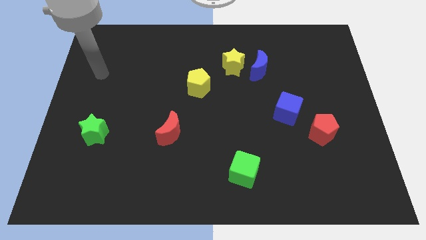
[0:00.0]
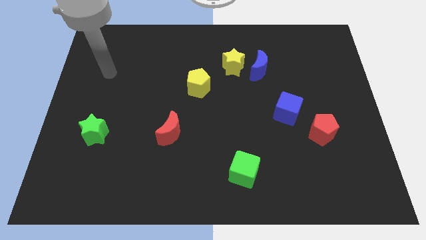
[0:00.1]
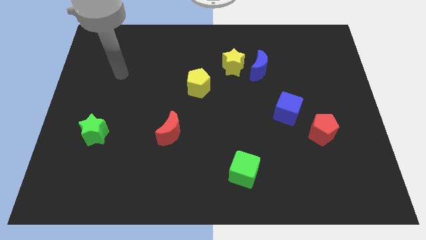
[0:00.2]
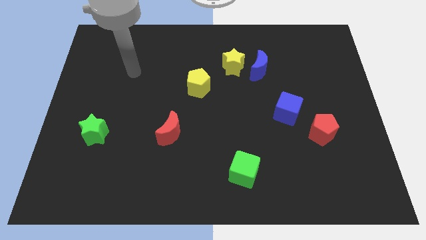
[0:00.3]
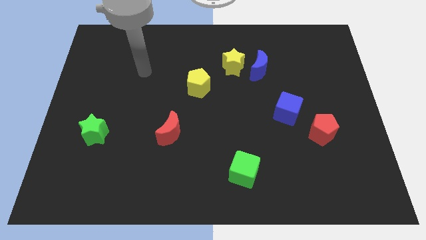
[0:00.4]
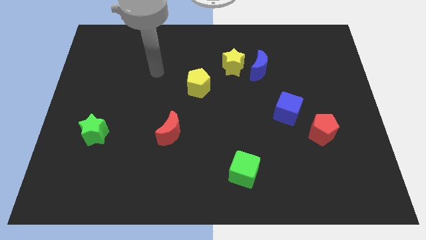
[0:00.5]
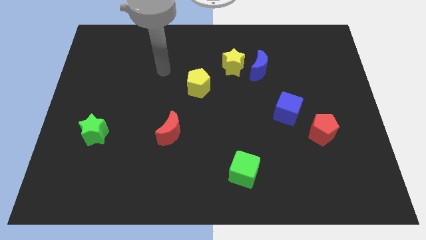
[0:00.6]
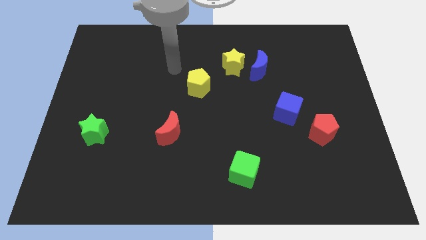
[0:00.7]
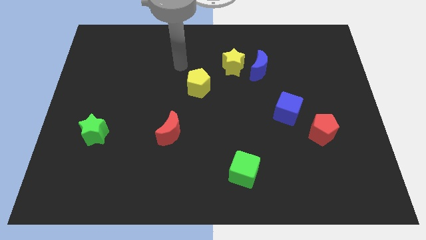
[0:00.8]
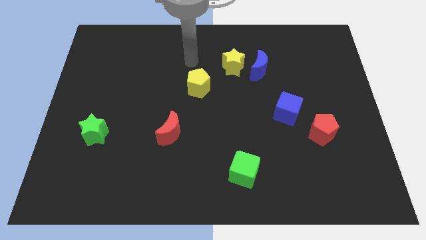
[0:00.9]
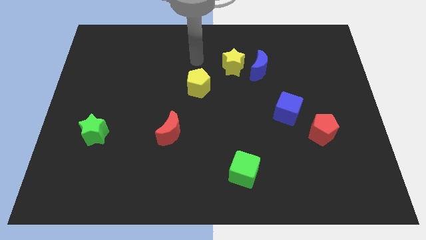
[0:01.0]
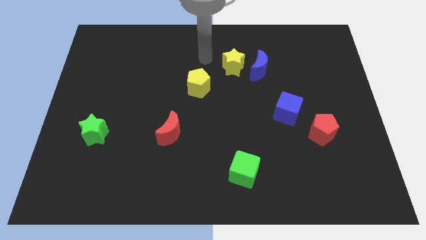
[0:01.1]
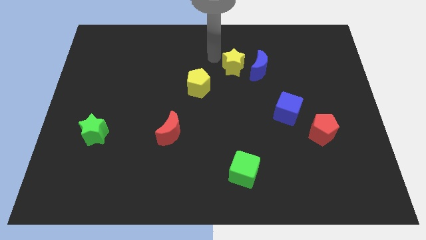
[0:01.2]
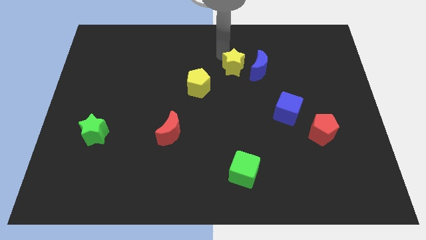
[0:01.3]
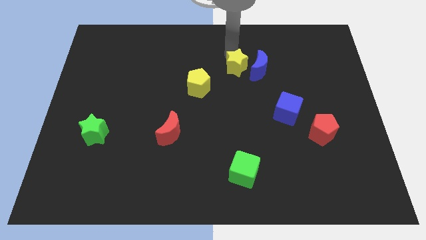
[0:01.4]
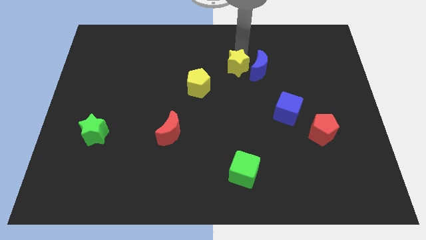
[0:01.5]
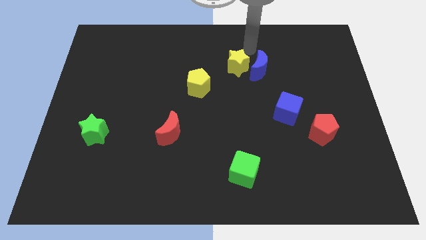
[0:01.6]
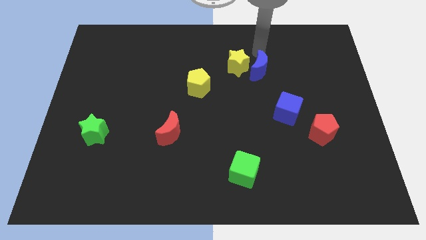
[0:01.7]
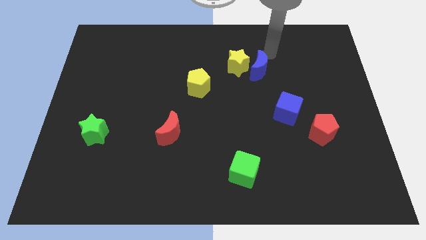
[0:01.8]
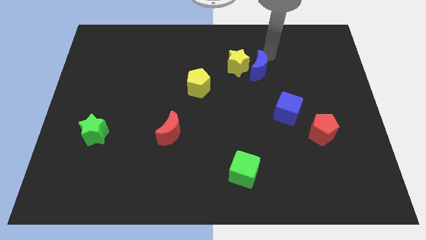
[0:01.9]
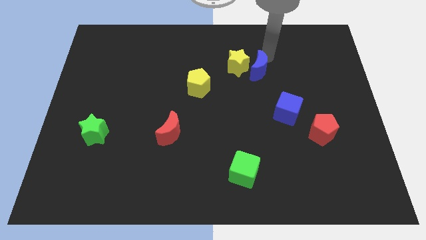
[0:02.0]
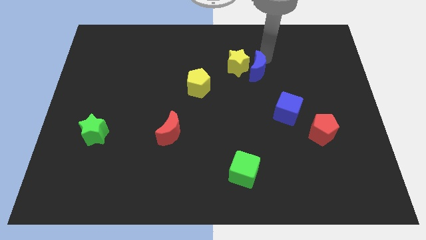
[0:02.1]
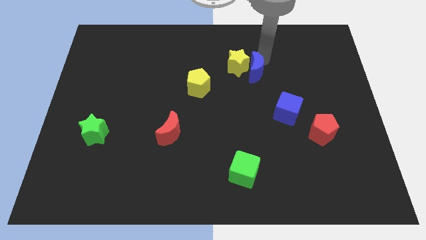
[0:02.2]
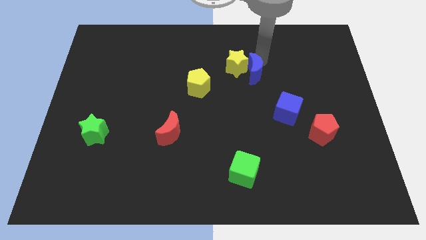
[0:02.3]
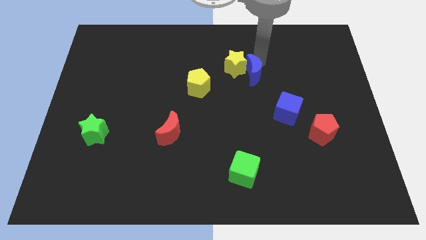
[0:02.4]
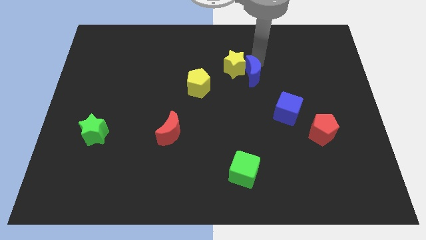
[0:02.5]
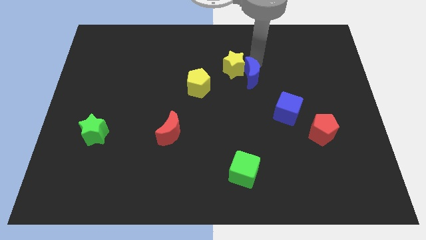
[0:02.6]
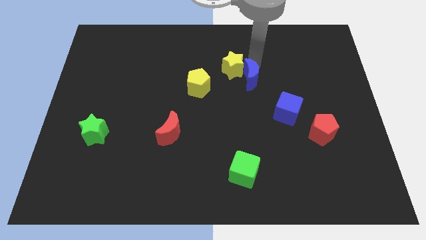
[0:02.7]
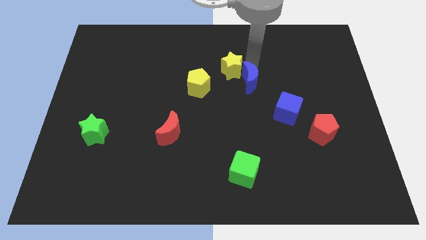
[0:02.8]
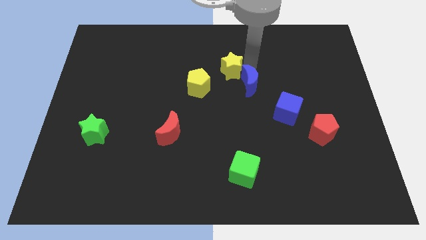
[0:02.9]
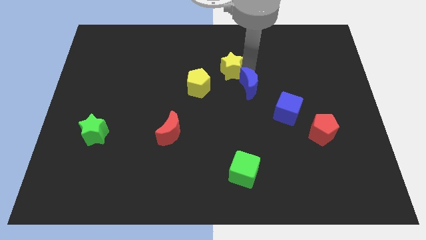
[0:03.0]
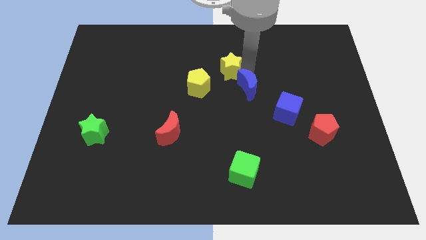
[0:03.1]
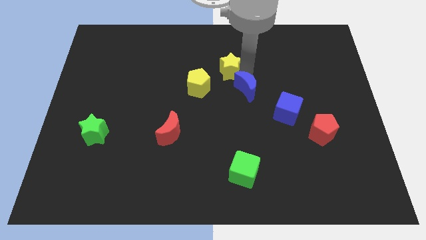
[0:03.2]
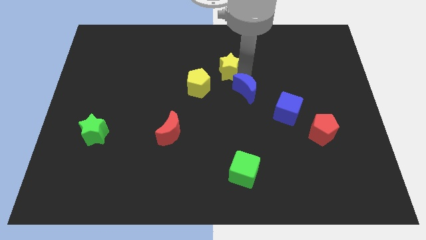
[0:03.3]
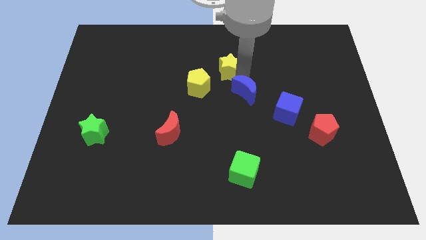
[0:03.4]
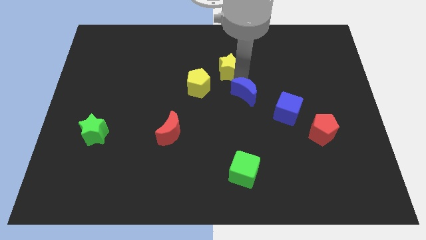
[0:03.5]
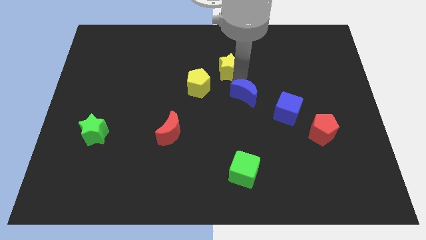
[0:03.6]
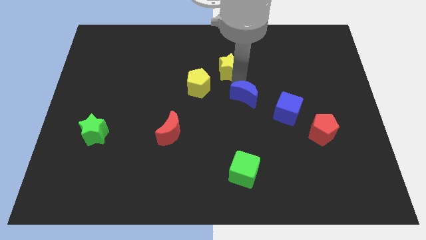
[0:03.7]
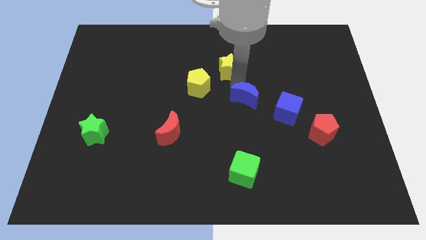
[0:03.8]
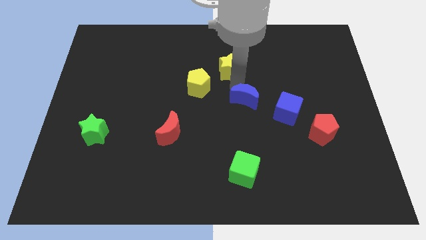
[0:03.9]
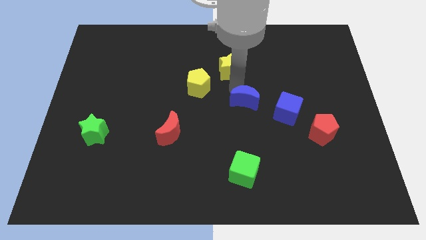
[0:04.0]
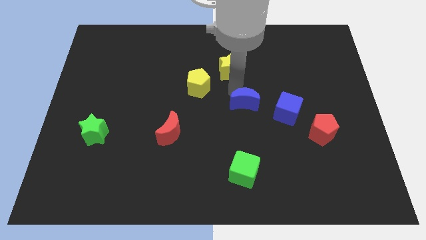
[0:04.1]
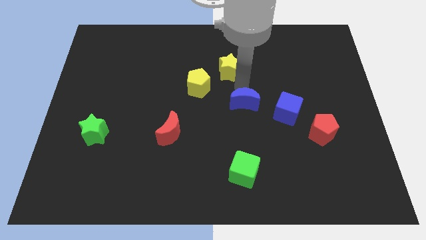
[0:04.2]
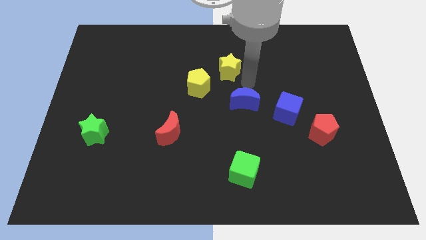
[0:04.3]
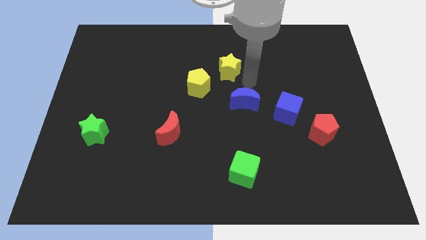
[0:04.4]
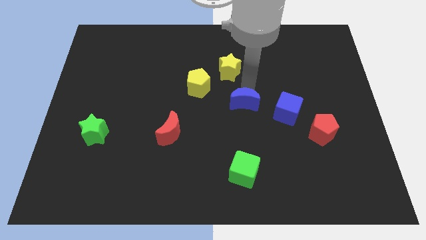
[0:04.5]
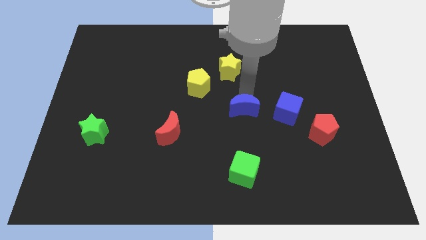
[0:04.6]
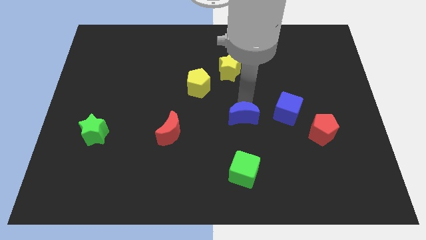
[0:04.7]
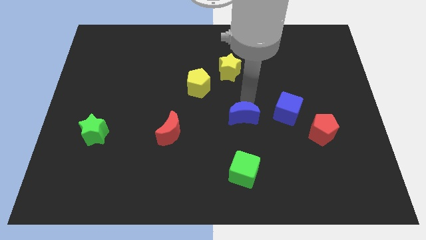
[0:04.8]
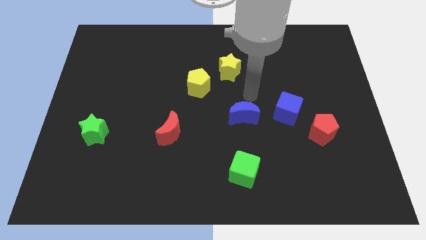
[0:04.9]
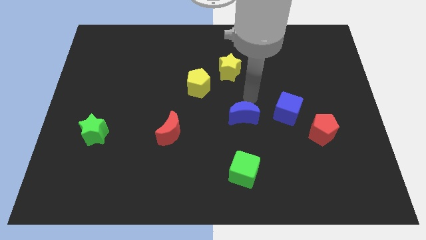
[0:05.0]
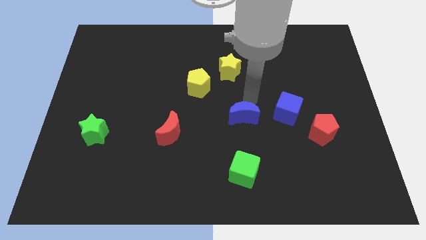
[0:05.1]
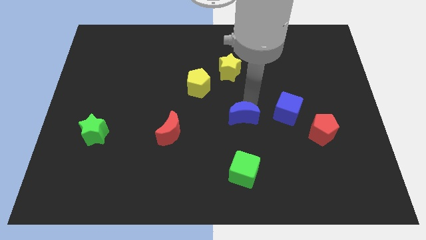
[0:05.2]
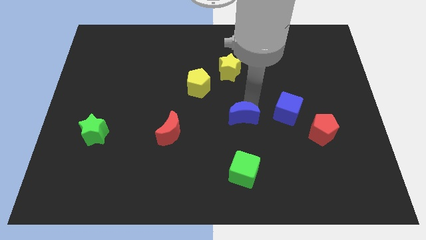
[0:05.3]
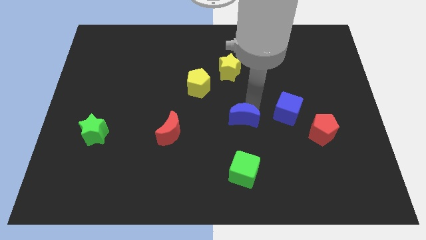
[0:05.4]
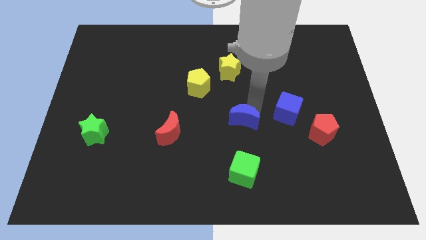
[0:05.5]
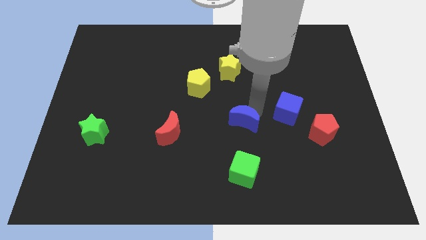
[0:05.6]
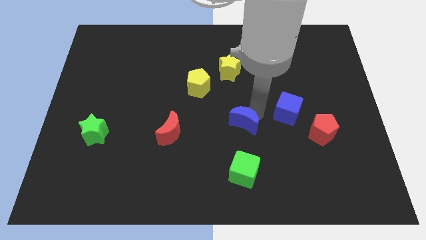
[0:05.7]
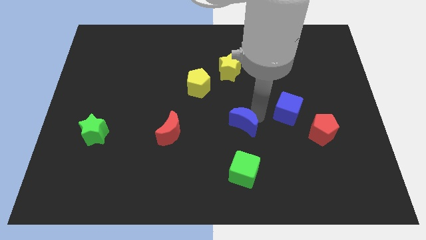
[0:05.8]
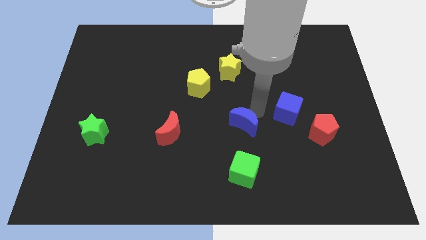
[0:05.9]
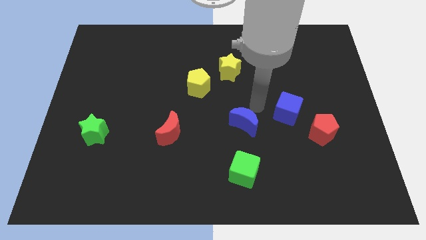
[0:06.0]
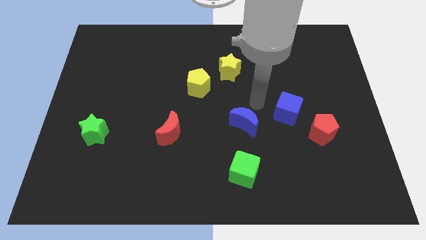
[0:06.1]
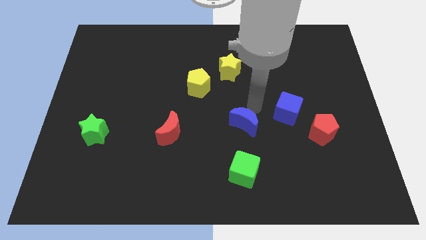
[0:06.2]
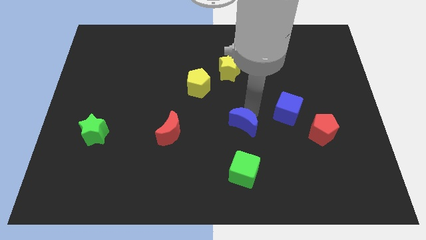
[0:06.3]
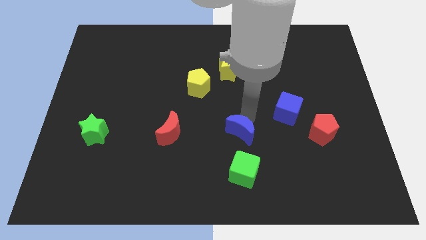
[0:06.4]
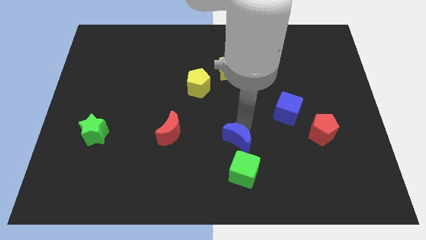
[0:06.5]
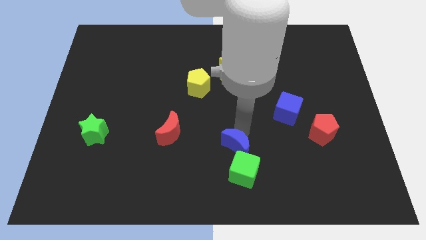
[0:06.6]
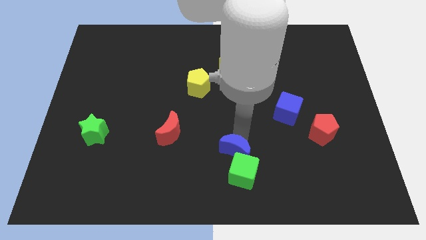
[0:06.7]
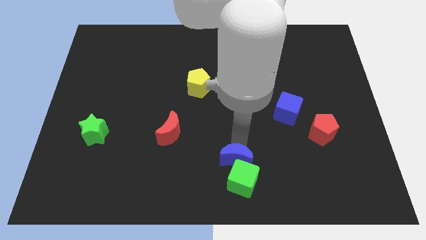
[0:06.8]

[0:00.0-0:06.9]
move the blue moon to the bottom
